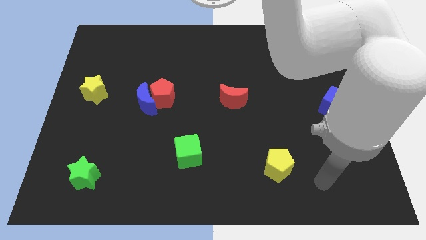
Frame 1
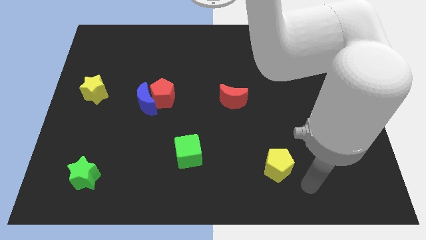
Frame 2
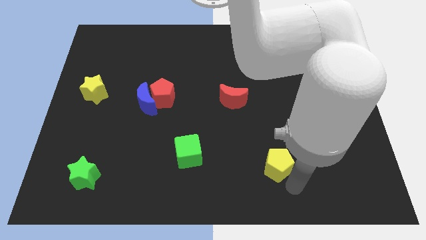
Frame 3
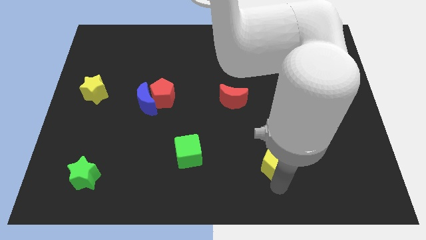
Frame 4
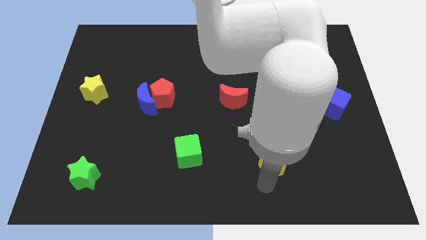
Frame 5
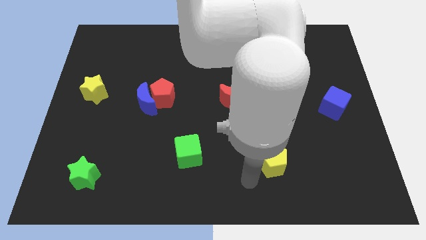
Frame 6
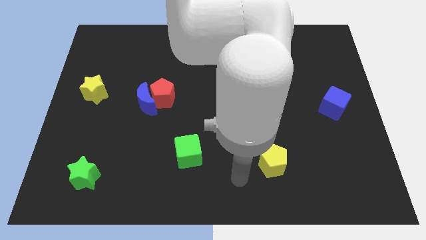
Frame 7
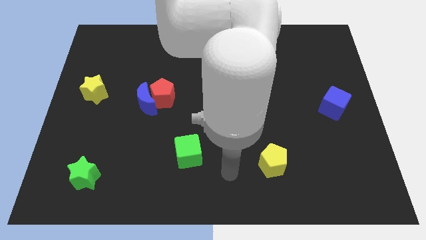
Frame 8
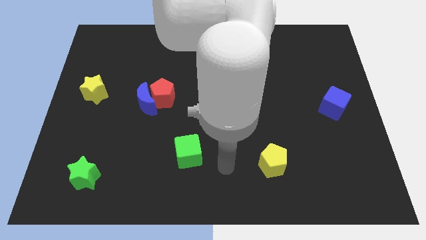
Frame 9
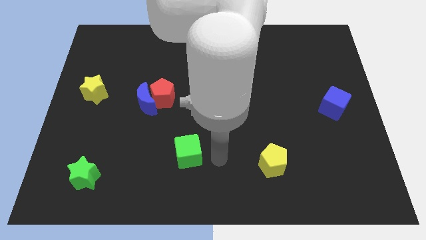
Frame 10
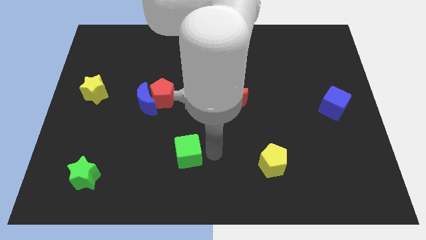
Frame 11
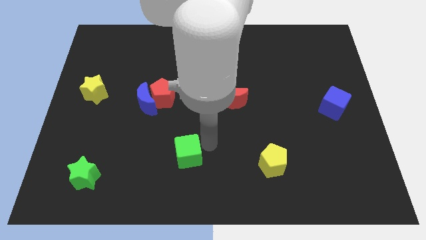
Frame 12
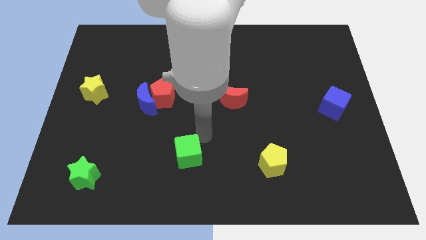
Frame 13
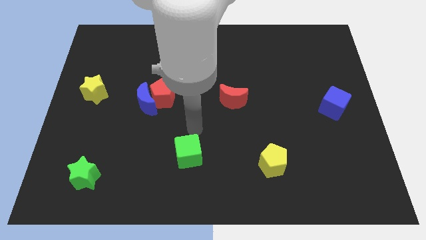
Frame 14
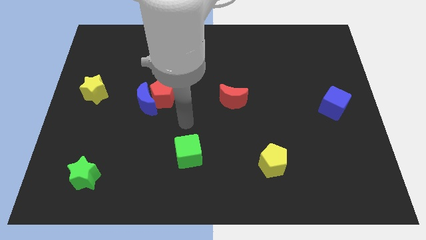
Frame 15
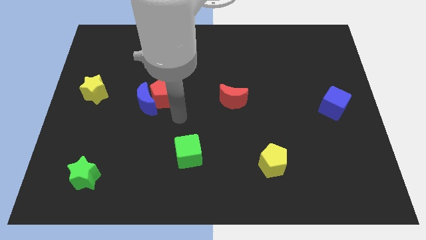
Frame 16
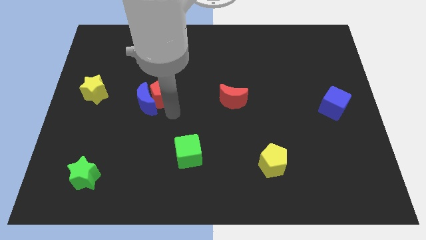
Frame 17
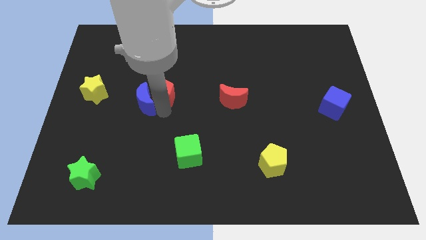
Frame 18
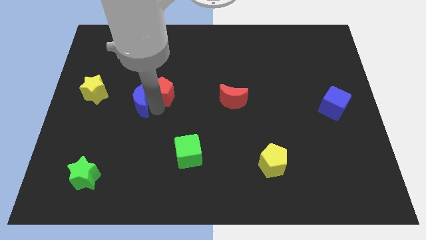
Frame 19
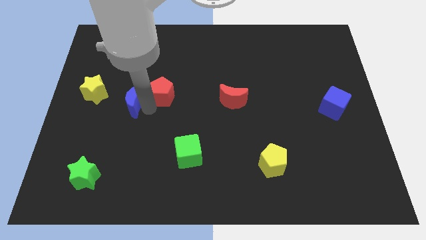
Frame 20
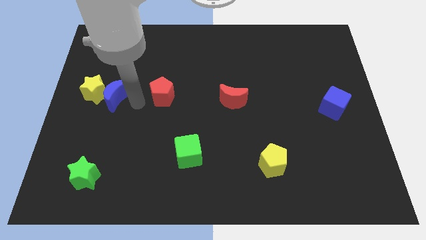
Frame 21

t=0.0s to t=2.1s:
move the red pentagon away from the blue moon

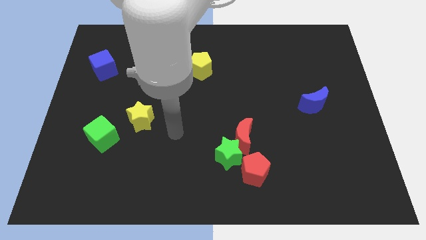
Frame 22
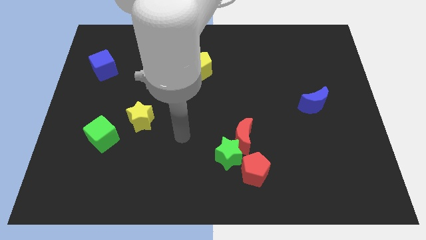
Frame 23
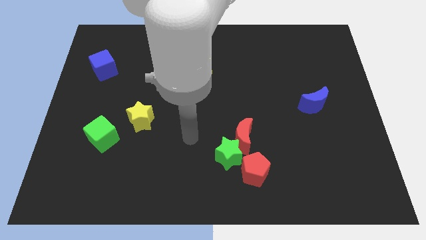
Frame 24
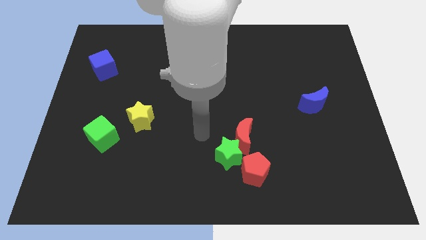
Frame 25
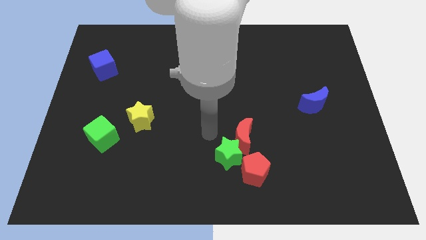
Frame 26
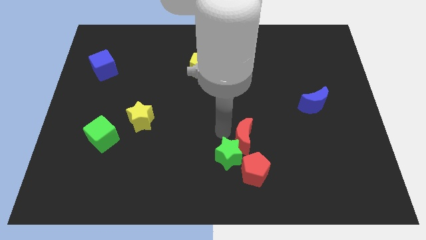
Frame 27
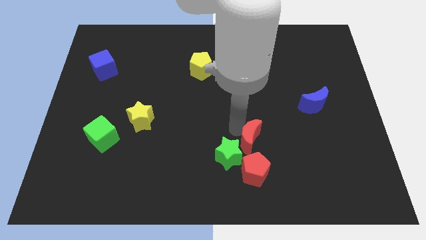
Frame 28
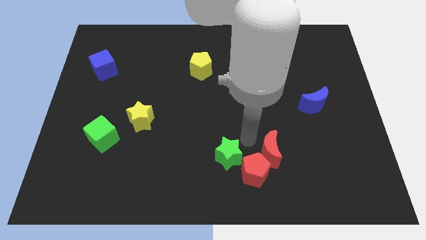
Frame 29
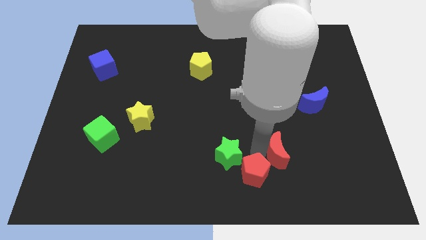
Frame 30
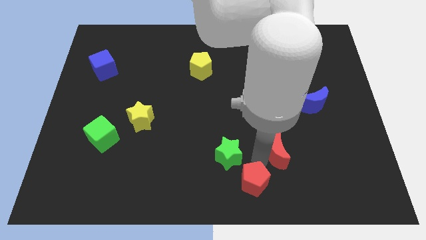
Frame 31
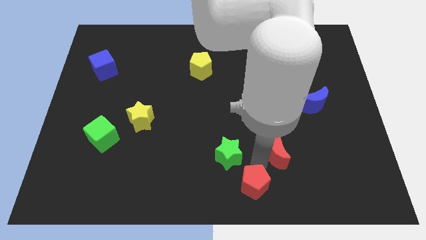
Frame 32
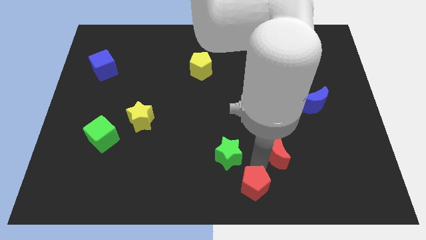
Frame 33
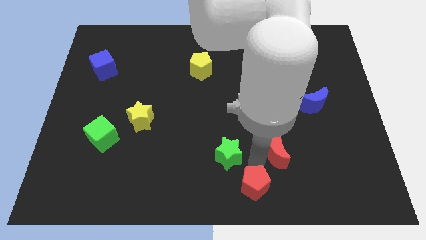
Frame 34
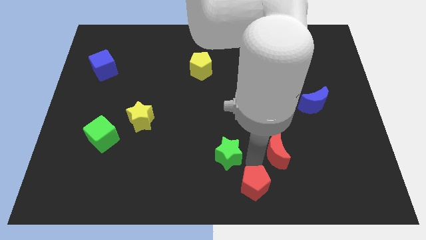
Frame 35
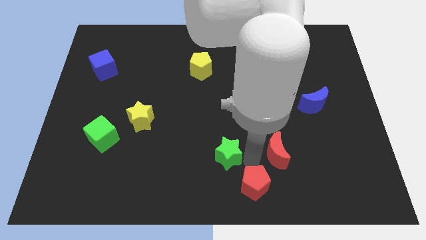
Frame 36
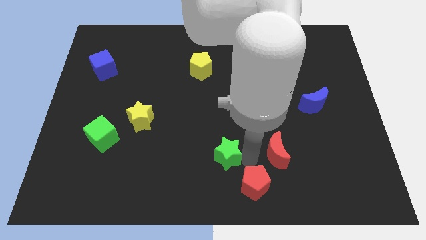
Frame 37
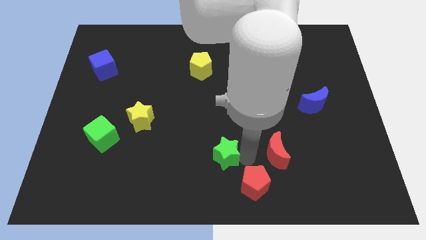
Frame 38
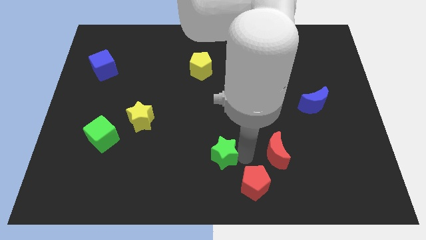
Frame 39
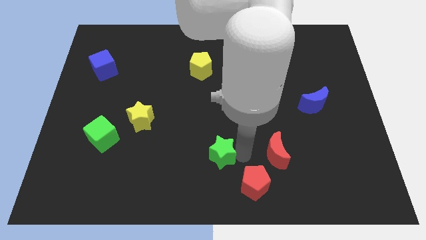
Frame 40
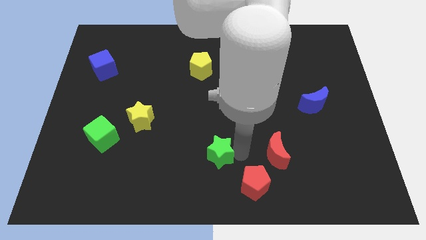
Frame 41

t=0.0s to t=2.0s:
move the green star away from the red moon and red pentagon

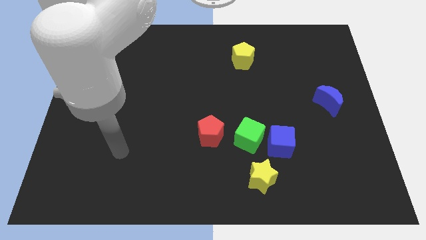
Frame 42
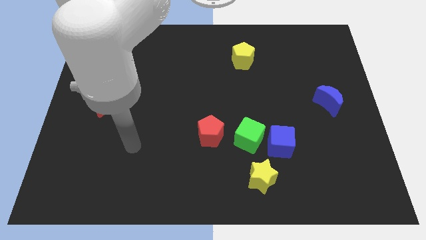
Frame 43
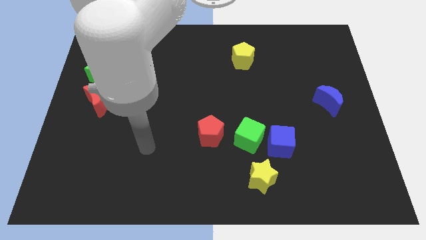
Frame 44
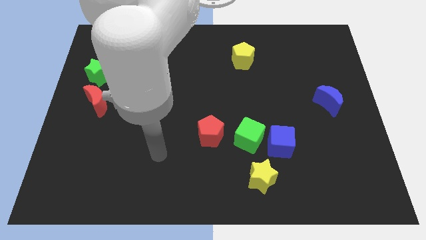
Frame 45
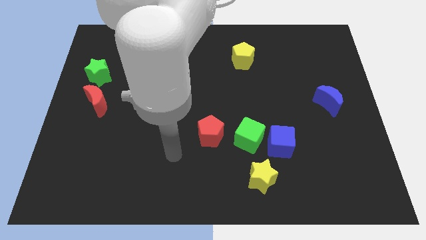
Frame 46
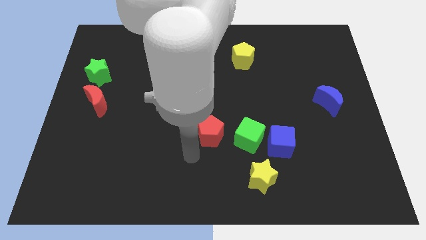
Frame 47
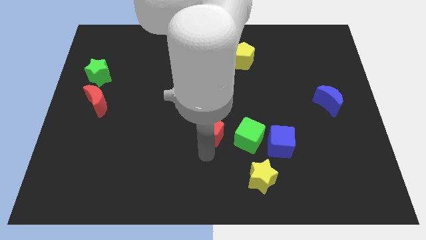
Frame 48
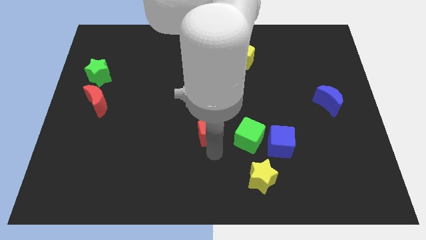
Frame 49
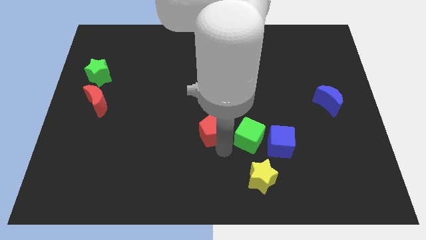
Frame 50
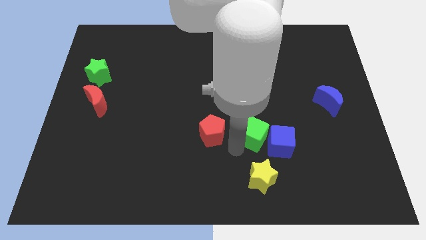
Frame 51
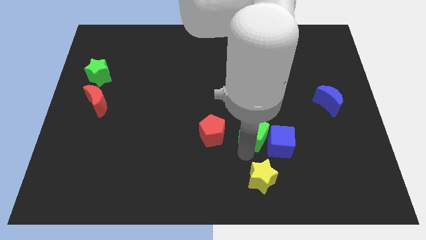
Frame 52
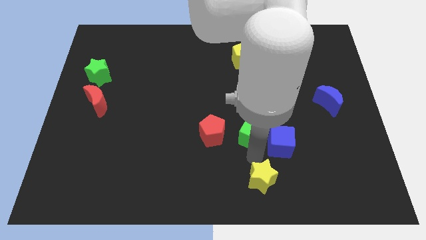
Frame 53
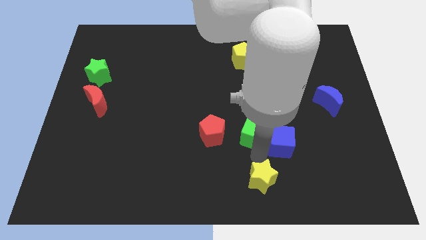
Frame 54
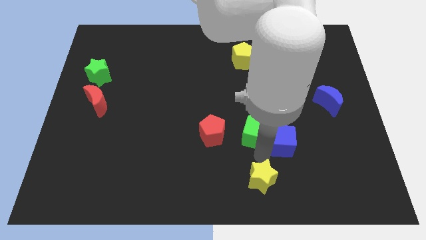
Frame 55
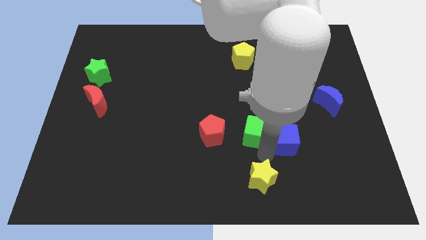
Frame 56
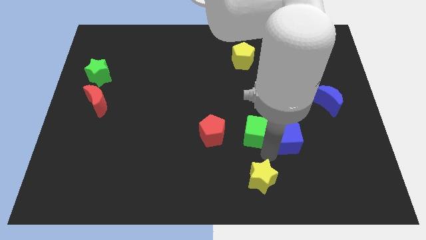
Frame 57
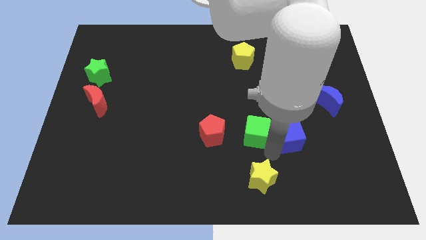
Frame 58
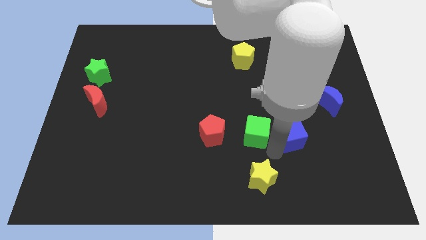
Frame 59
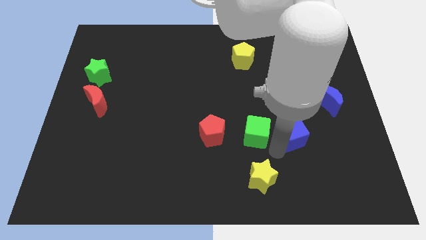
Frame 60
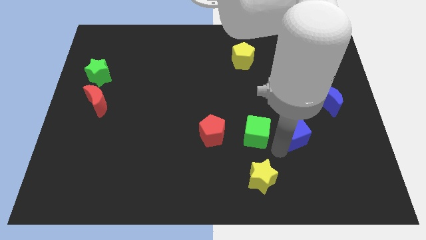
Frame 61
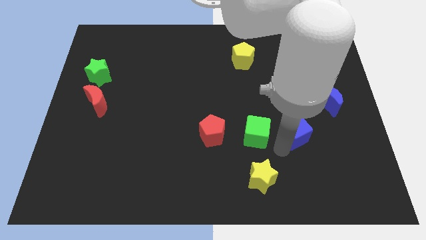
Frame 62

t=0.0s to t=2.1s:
pull the blue cube apart from the green cube and yellow star

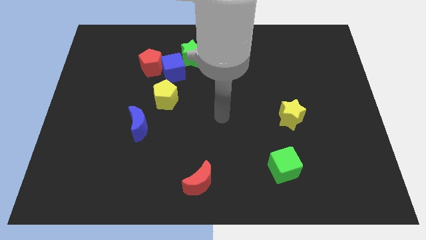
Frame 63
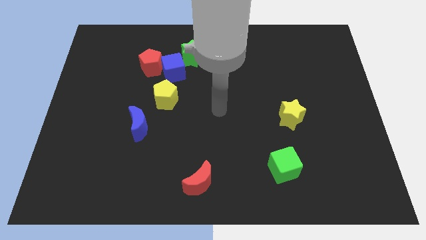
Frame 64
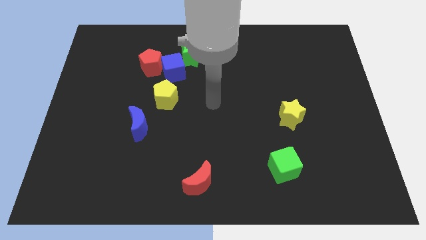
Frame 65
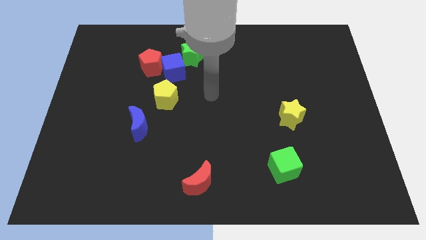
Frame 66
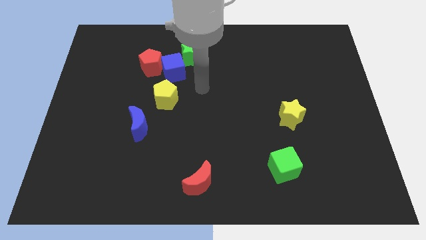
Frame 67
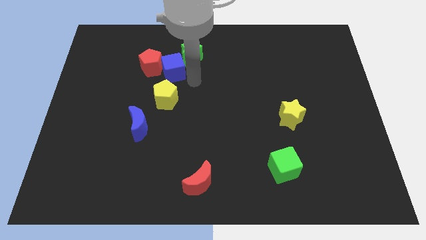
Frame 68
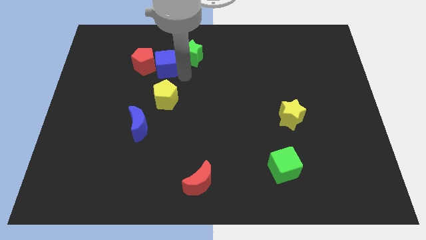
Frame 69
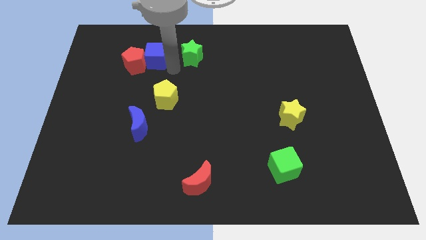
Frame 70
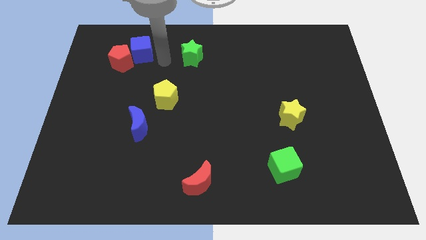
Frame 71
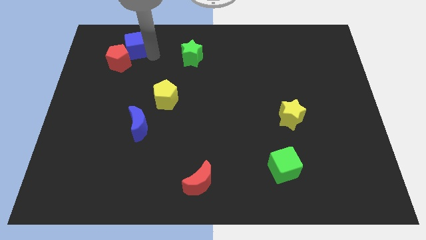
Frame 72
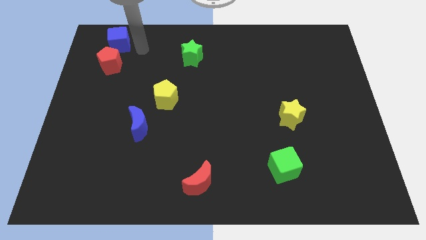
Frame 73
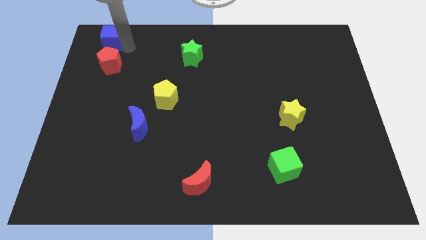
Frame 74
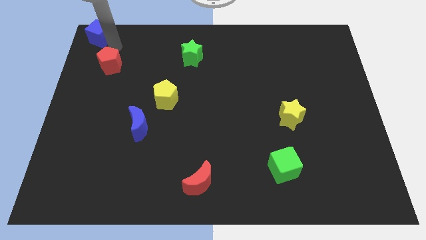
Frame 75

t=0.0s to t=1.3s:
pull the red pentagon apart from the blue cube

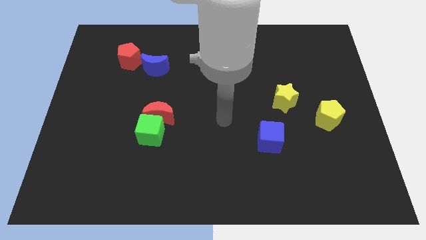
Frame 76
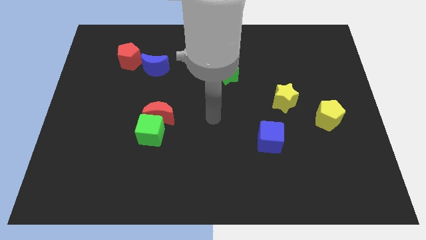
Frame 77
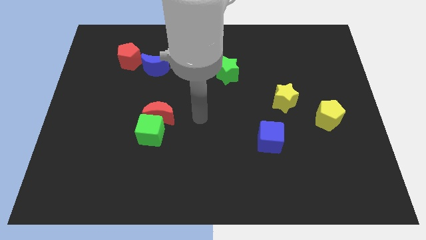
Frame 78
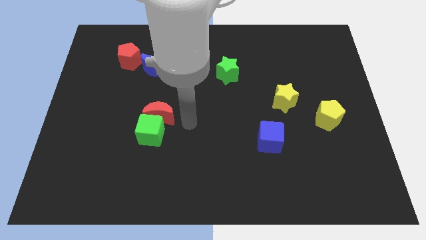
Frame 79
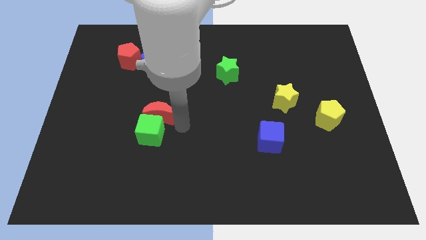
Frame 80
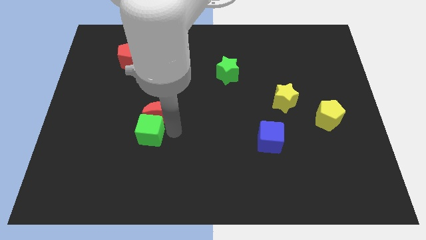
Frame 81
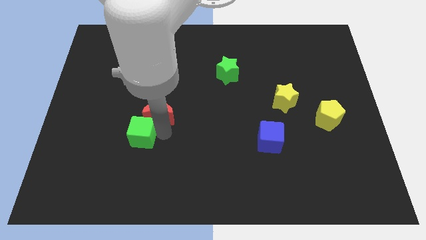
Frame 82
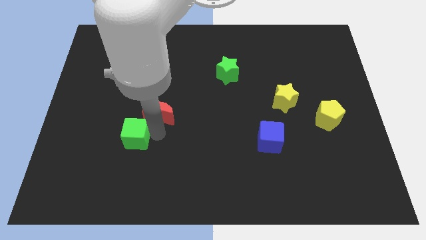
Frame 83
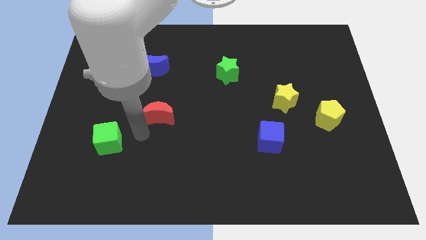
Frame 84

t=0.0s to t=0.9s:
pull the red moon apart from the green cube

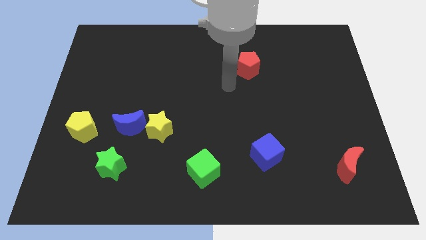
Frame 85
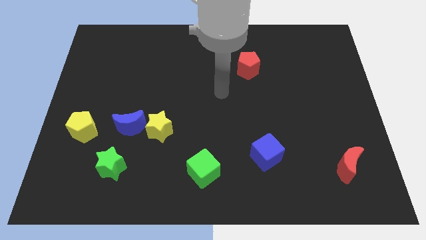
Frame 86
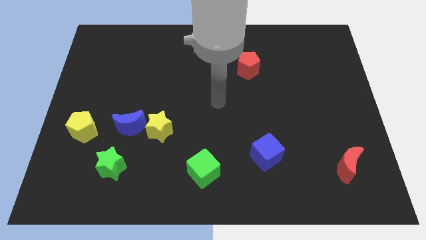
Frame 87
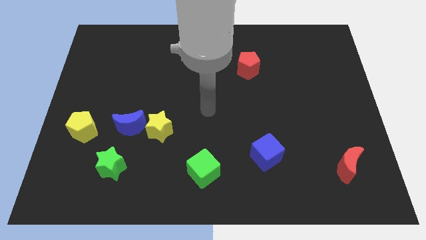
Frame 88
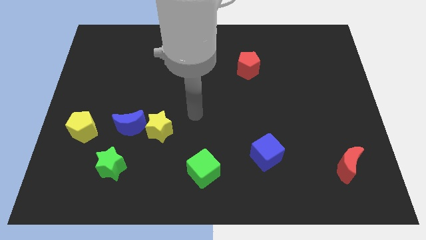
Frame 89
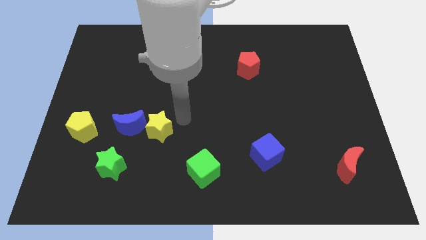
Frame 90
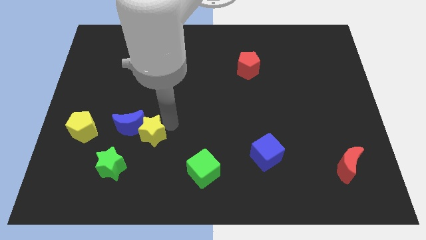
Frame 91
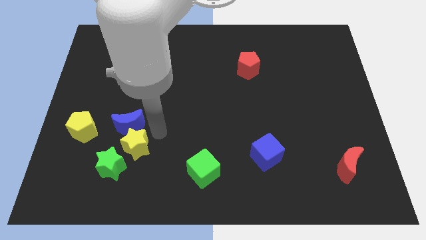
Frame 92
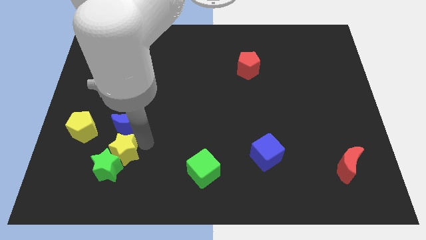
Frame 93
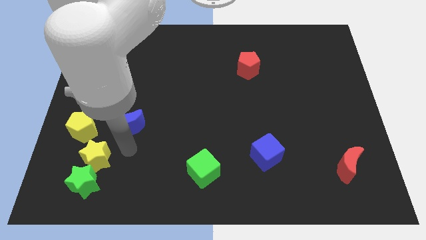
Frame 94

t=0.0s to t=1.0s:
move the blue moon away from the yellow star
